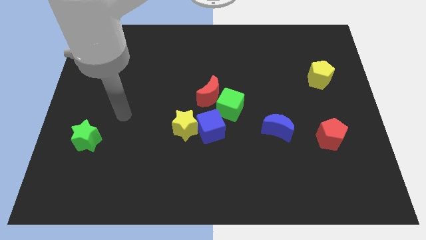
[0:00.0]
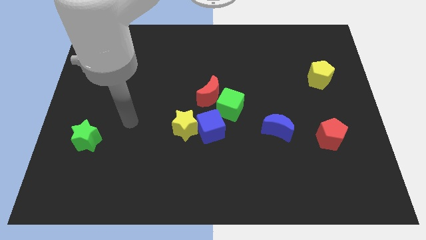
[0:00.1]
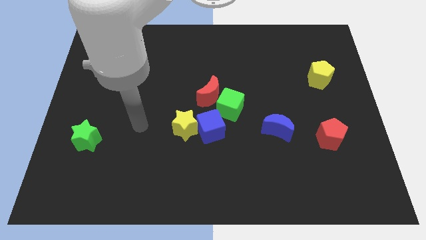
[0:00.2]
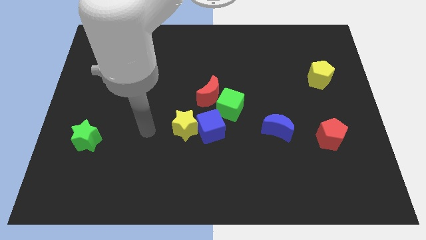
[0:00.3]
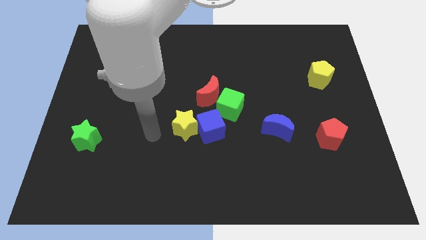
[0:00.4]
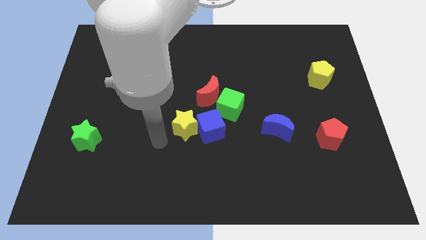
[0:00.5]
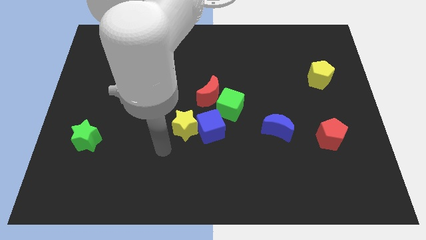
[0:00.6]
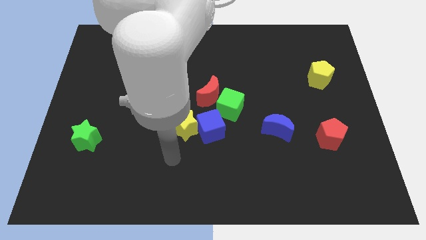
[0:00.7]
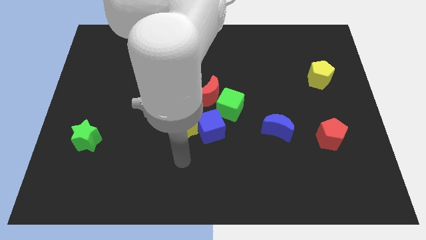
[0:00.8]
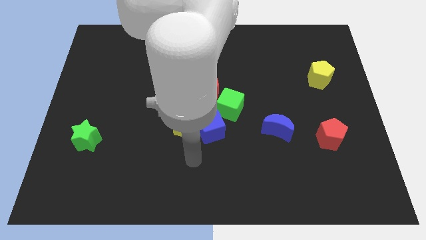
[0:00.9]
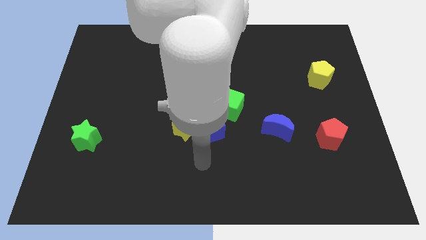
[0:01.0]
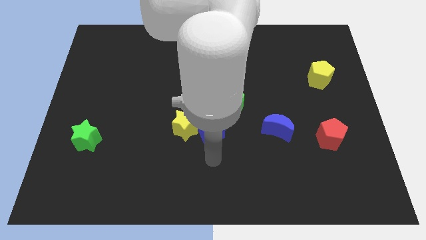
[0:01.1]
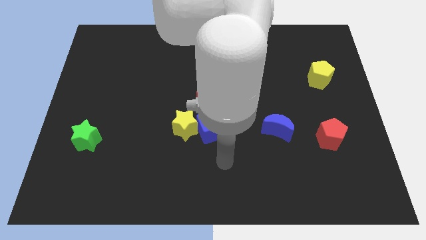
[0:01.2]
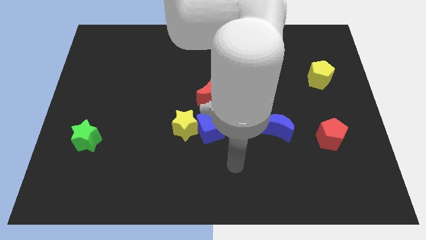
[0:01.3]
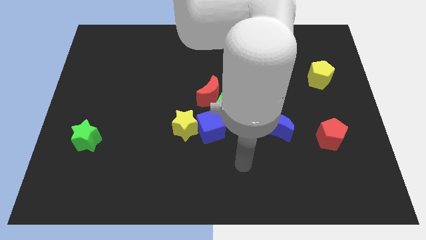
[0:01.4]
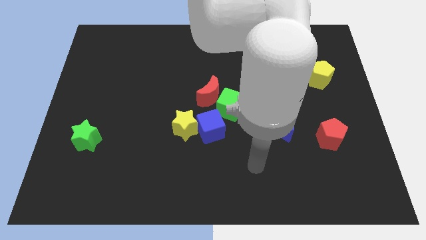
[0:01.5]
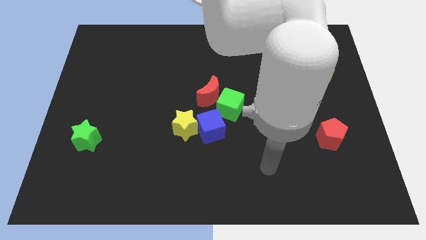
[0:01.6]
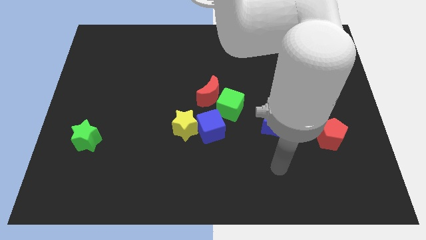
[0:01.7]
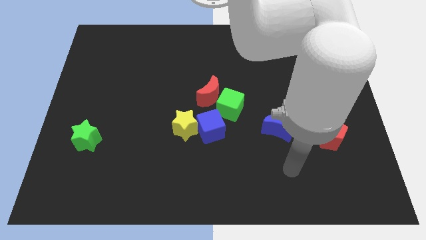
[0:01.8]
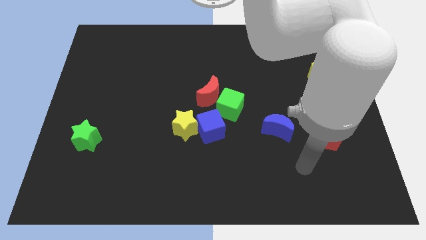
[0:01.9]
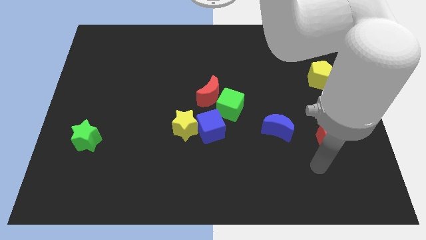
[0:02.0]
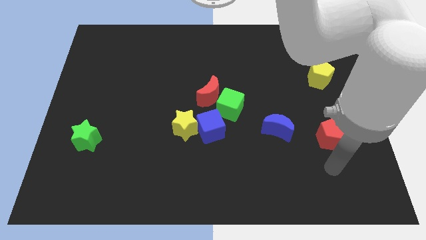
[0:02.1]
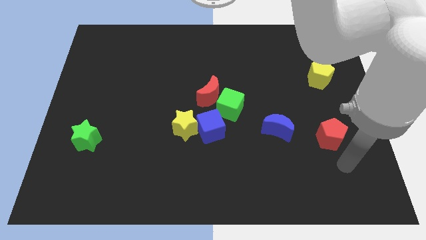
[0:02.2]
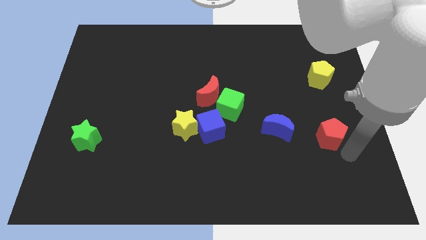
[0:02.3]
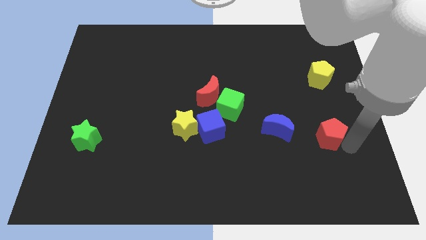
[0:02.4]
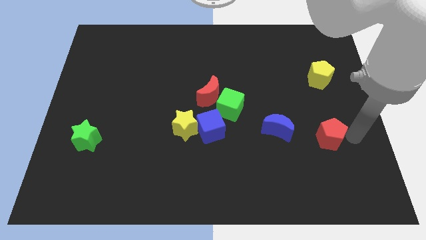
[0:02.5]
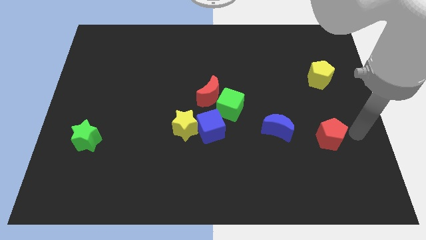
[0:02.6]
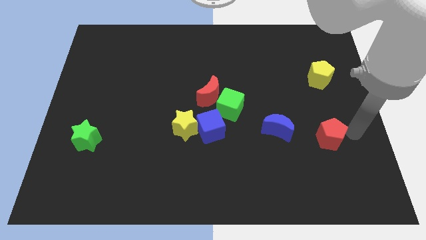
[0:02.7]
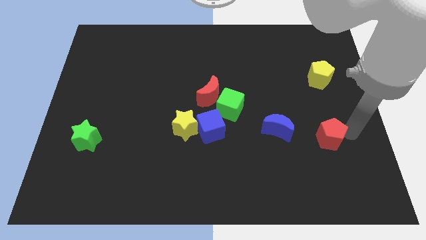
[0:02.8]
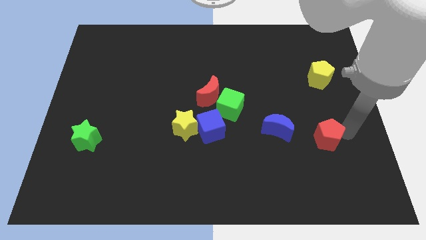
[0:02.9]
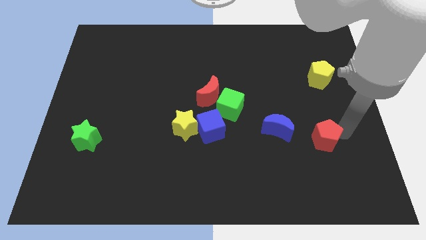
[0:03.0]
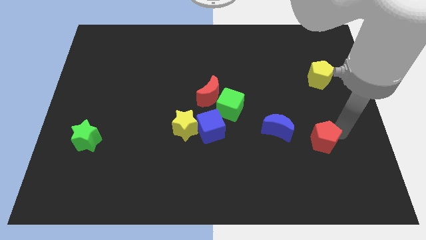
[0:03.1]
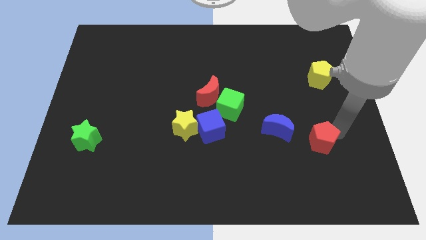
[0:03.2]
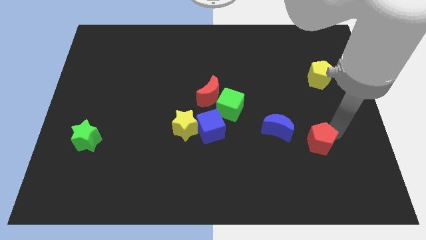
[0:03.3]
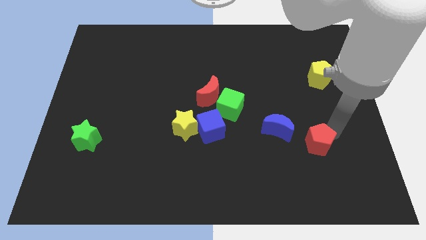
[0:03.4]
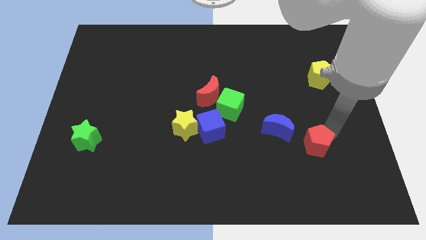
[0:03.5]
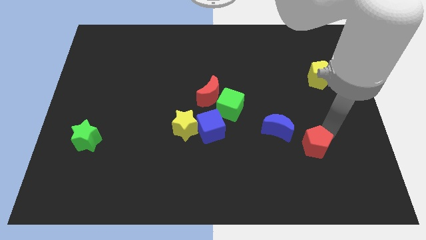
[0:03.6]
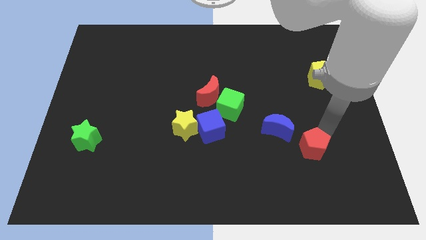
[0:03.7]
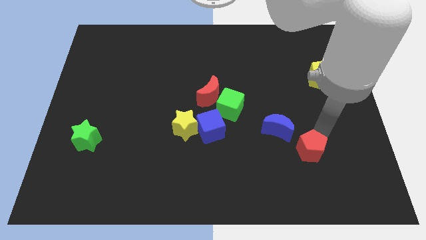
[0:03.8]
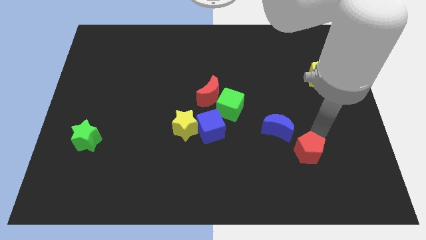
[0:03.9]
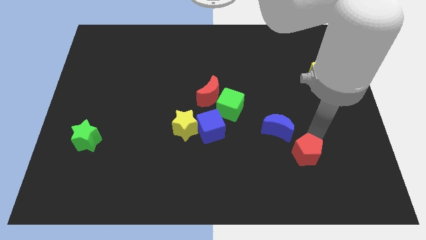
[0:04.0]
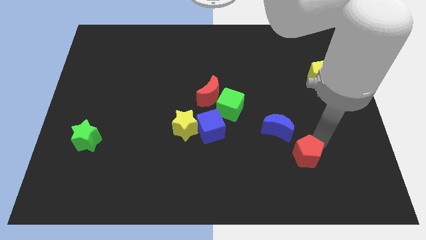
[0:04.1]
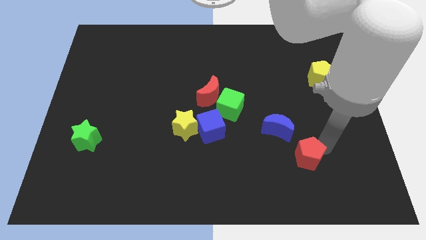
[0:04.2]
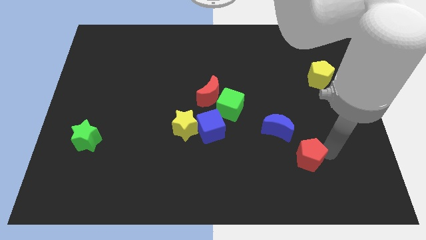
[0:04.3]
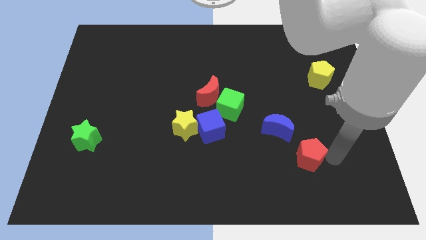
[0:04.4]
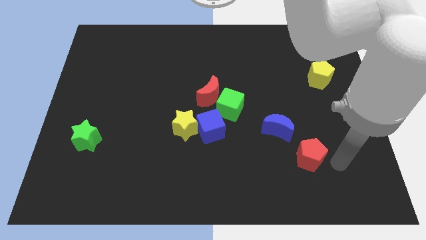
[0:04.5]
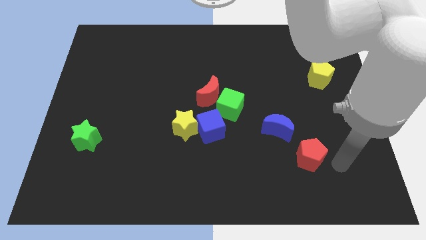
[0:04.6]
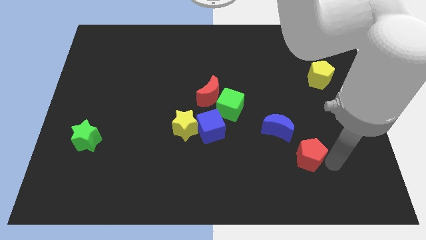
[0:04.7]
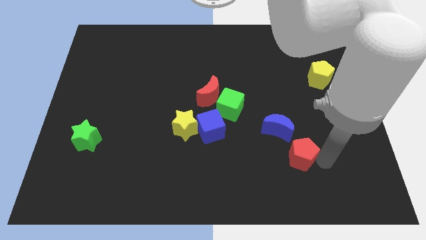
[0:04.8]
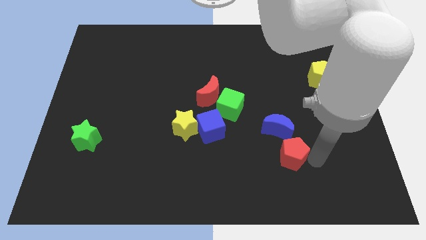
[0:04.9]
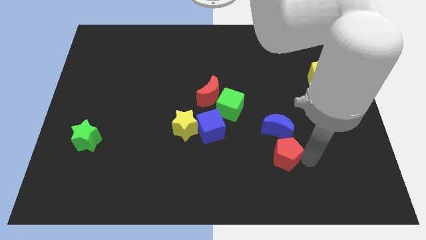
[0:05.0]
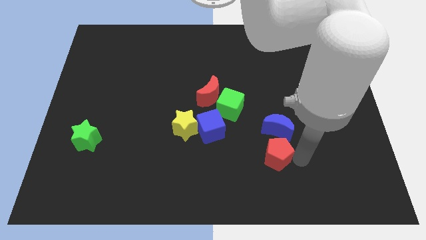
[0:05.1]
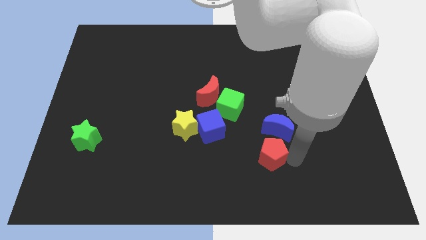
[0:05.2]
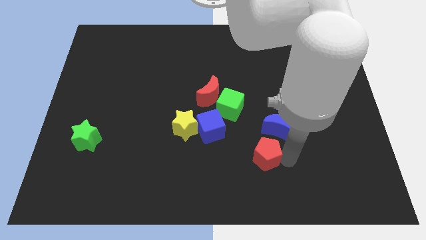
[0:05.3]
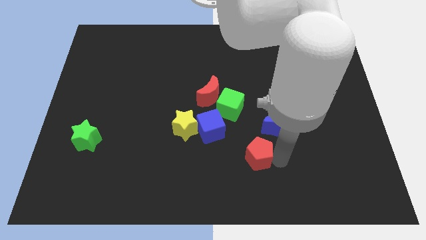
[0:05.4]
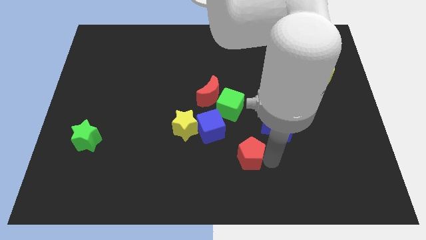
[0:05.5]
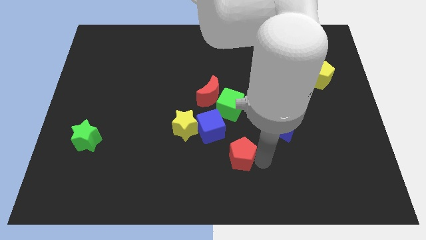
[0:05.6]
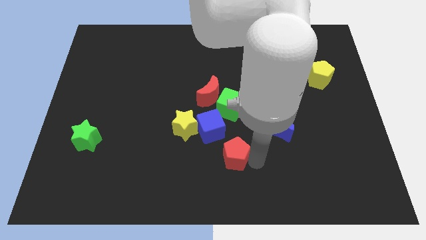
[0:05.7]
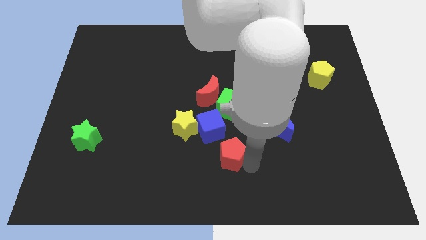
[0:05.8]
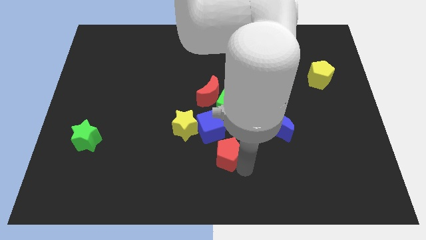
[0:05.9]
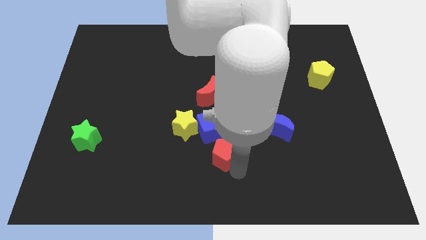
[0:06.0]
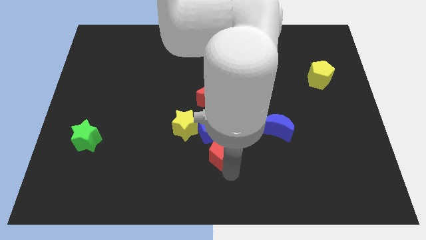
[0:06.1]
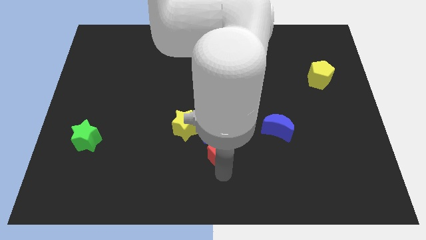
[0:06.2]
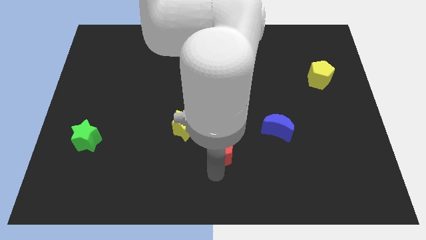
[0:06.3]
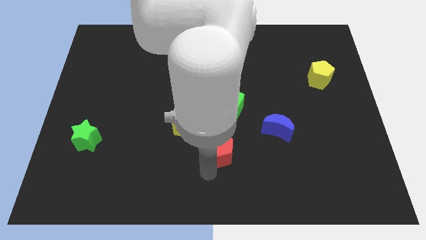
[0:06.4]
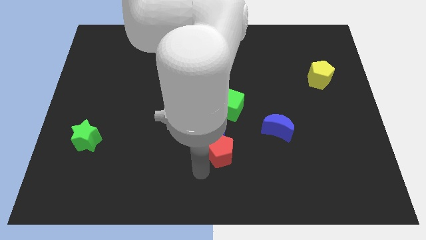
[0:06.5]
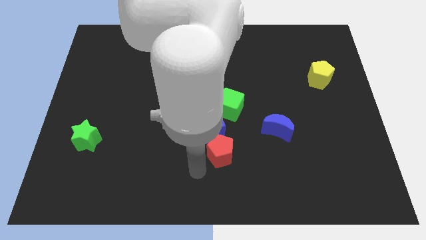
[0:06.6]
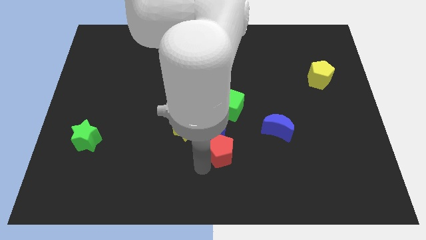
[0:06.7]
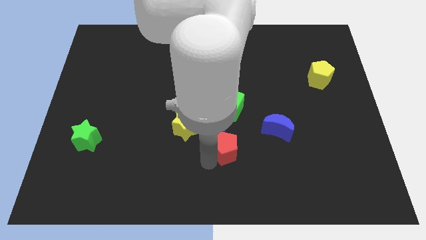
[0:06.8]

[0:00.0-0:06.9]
move the red pentagon to the blue cube
